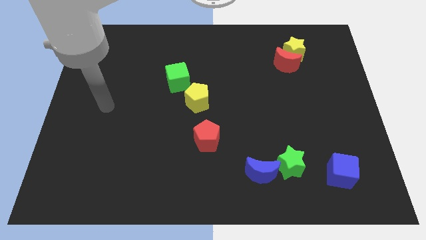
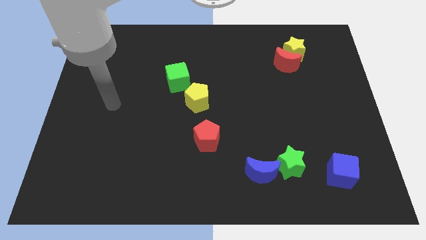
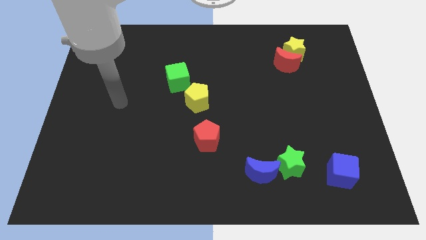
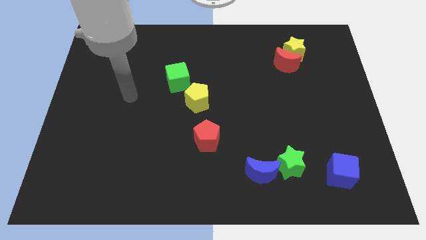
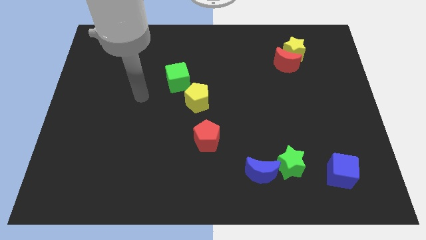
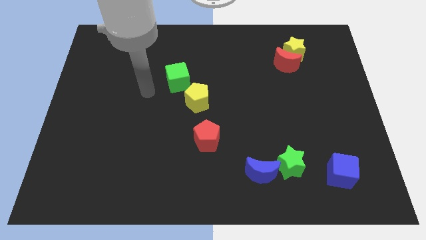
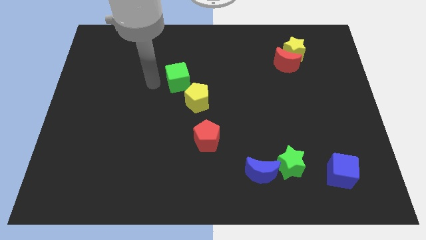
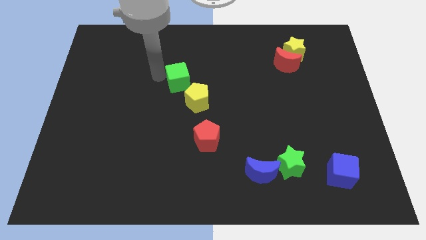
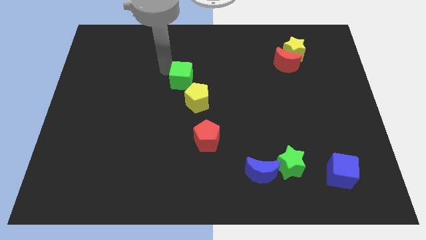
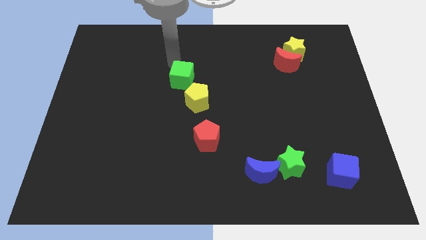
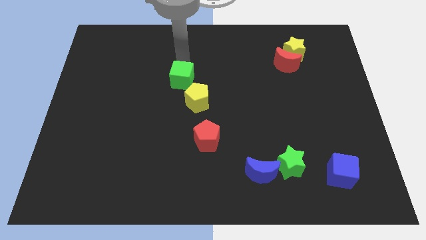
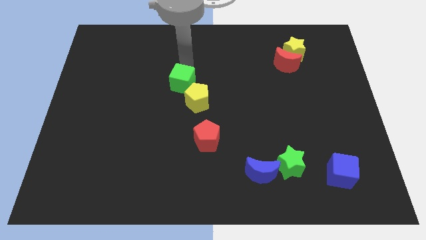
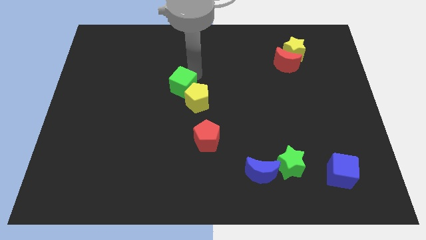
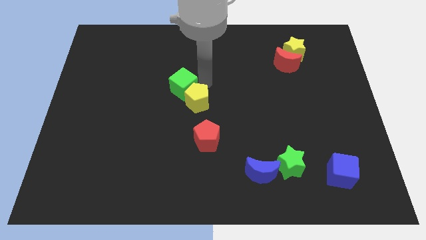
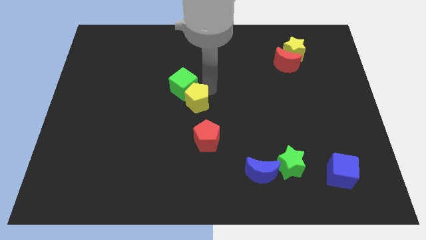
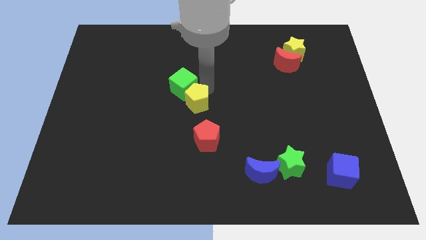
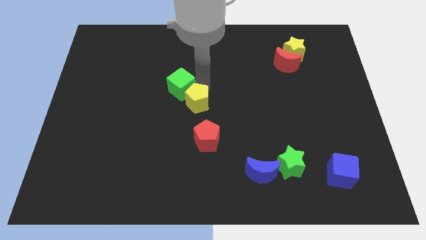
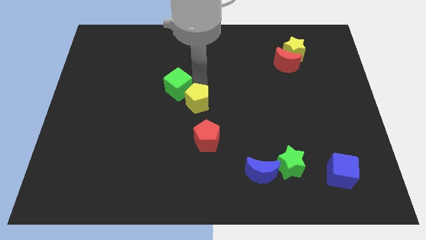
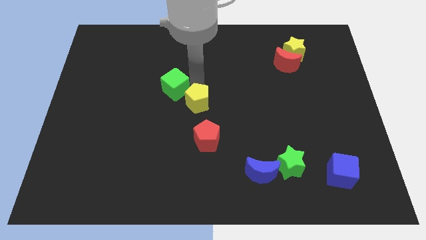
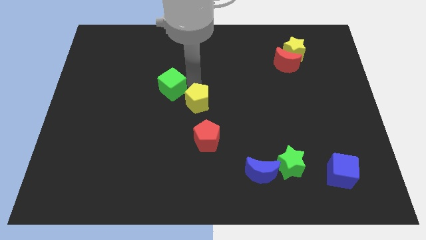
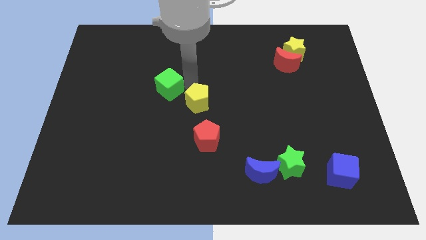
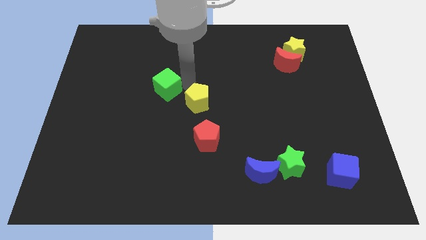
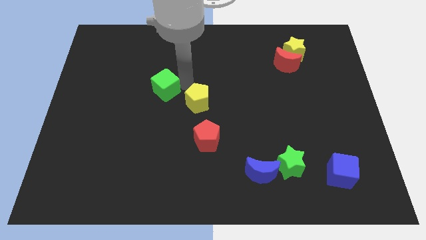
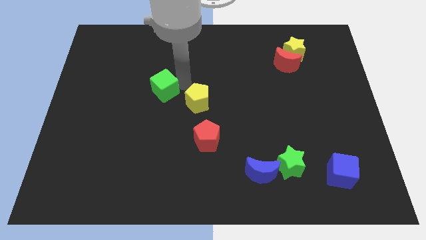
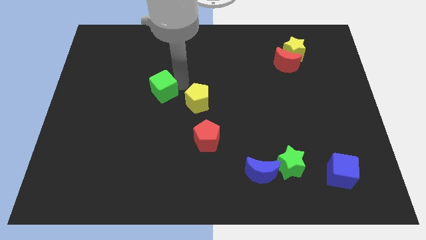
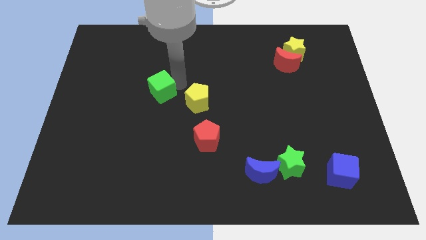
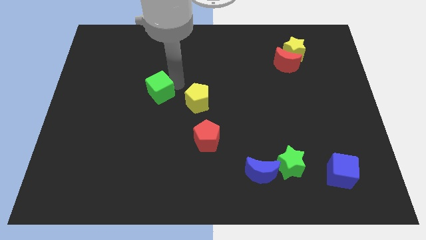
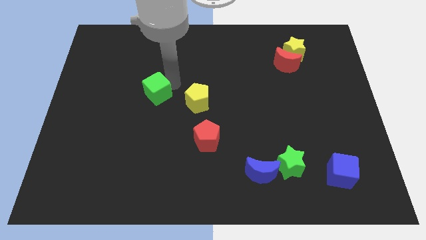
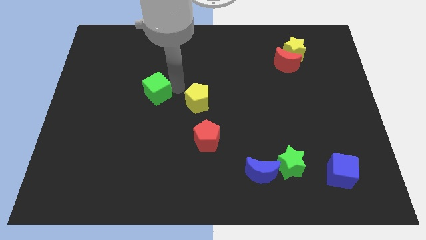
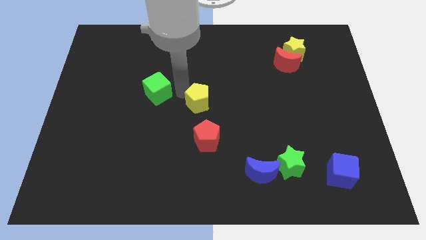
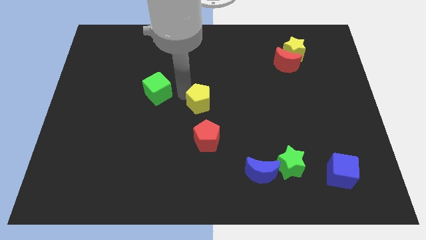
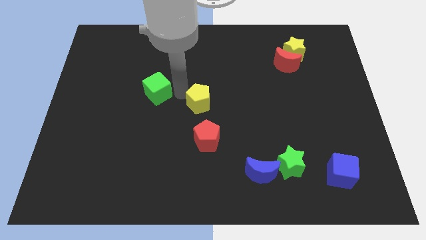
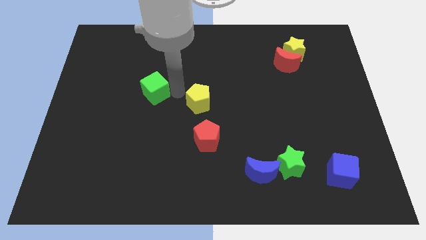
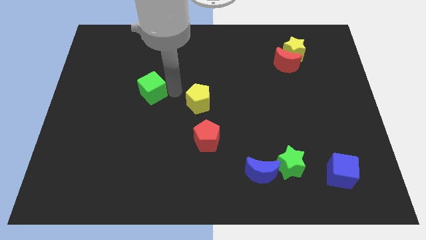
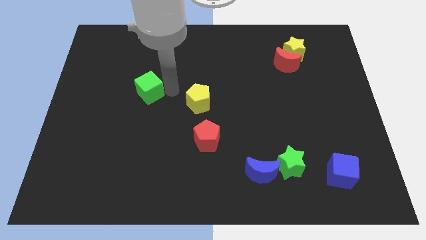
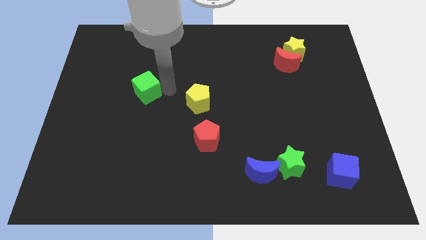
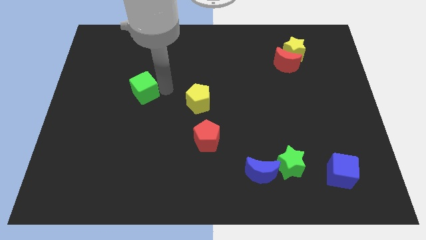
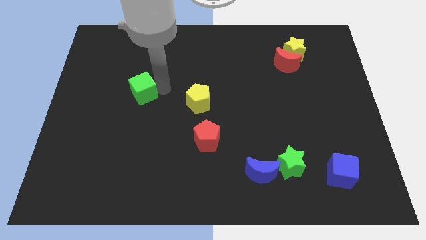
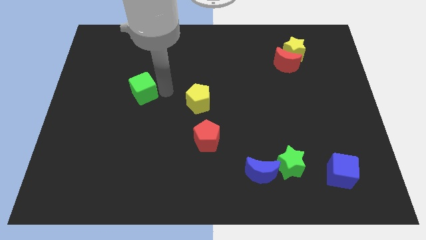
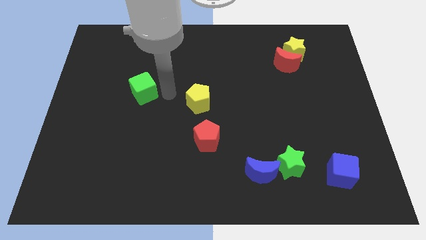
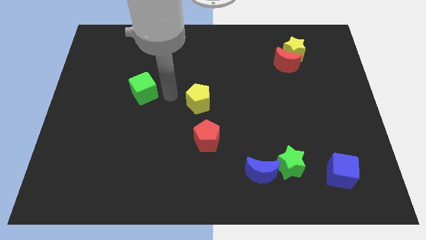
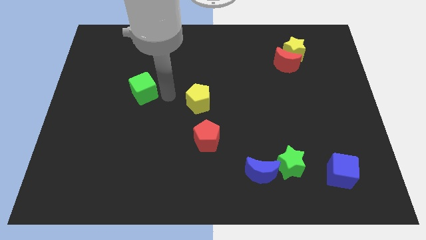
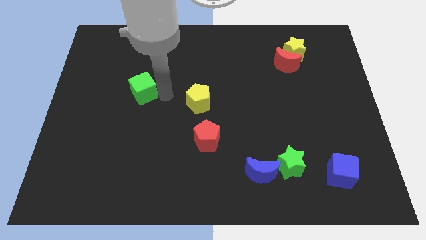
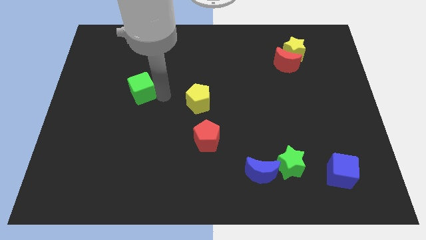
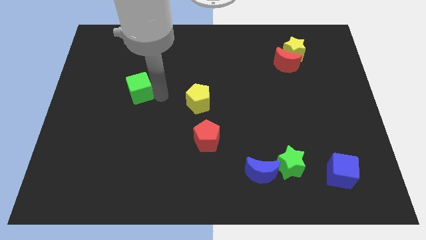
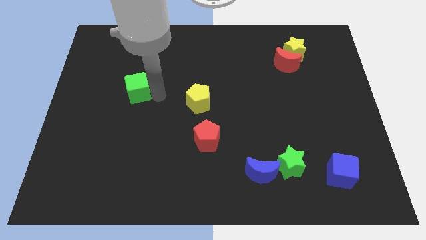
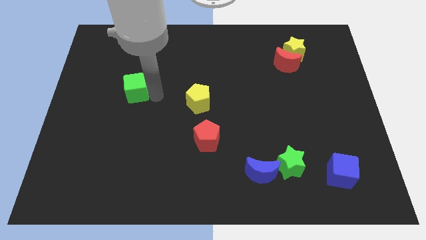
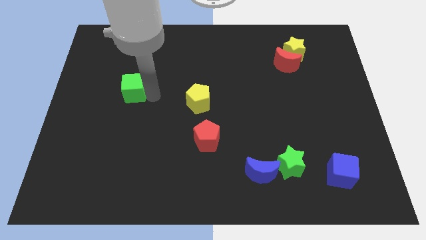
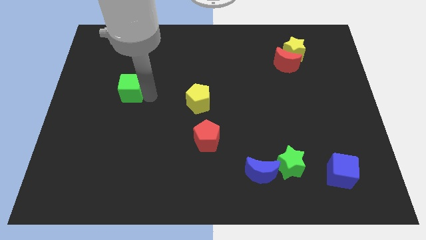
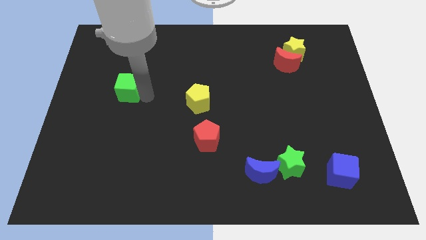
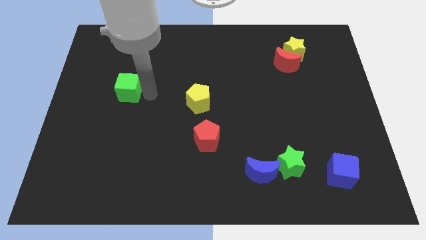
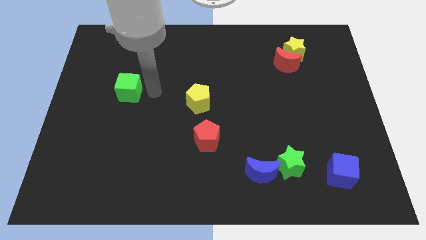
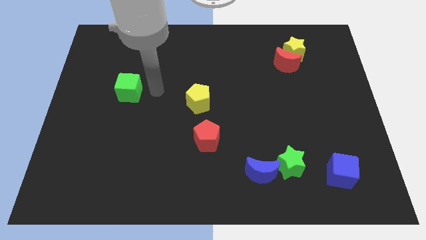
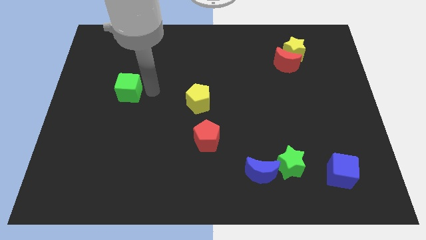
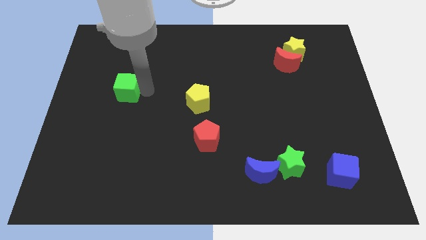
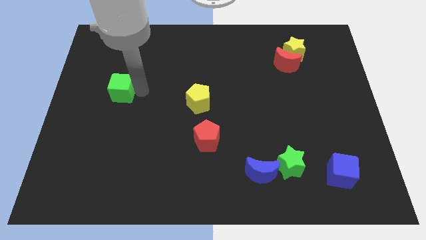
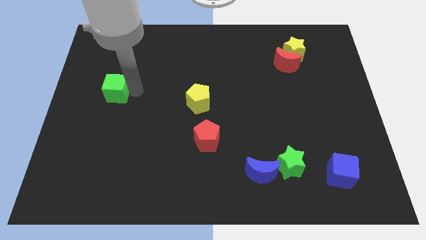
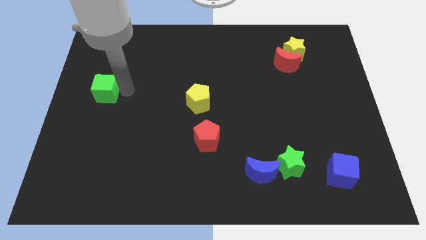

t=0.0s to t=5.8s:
move the green cube to the left side of the board

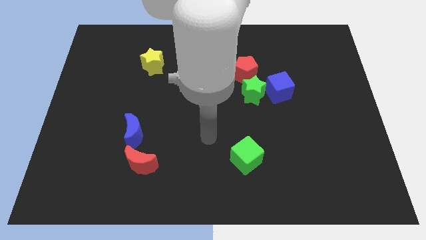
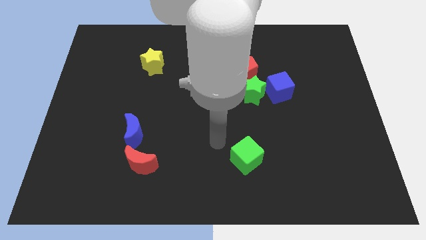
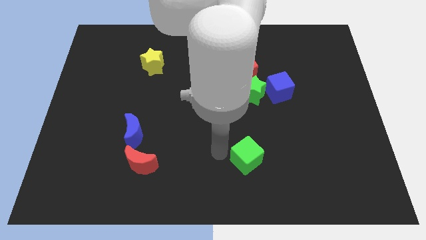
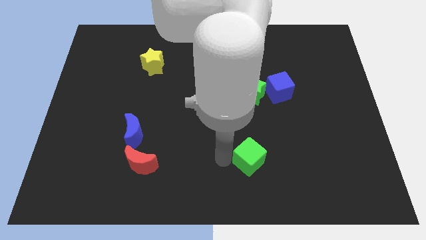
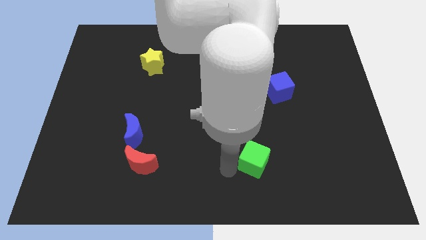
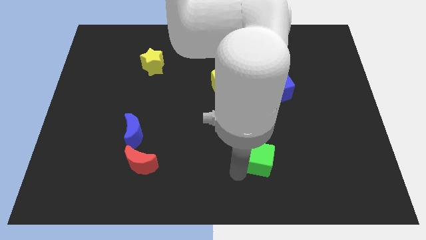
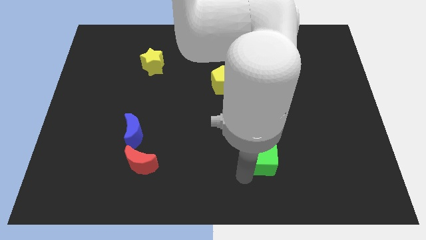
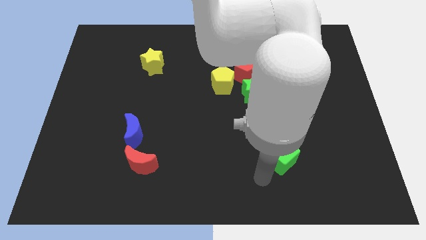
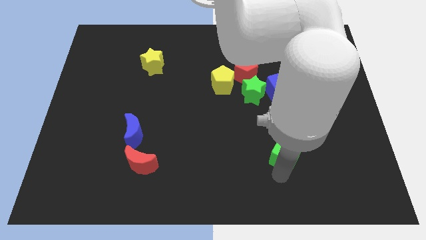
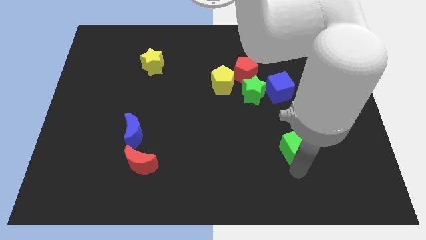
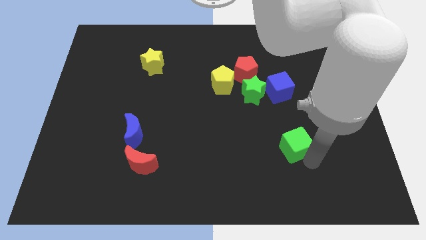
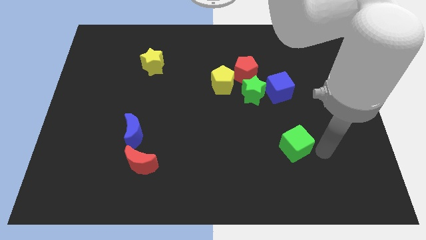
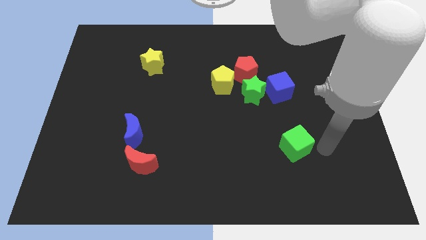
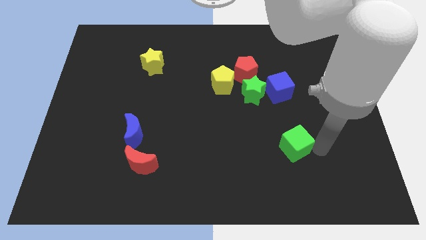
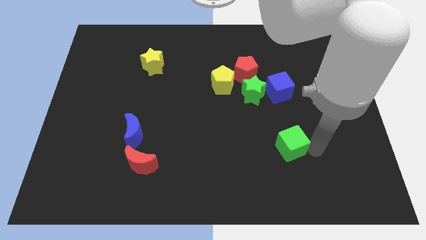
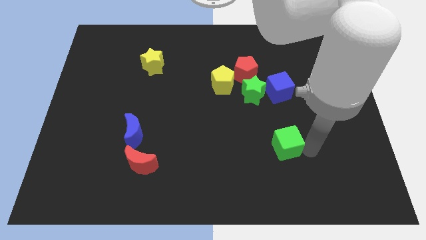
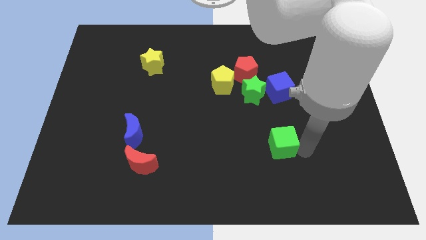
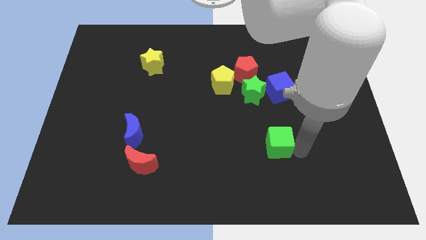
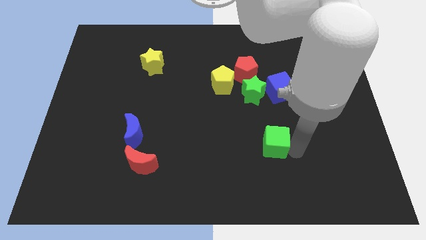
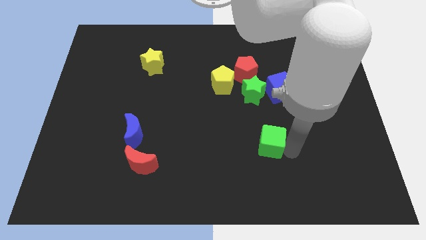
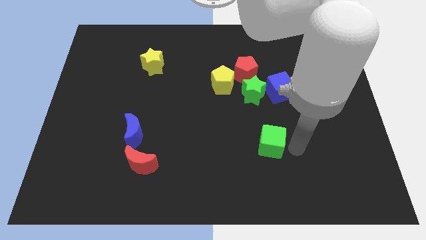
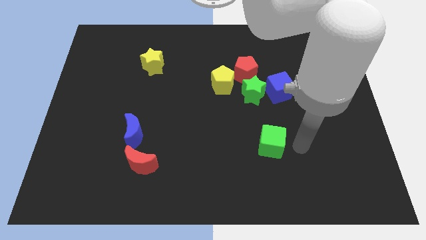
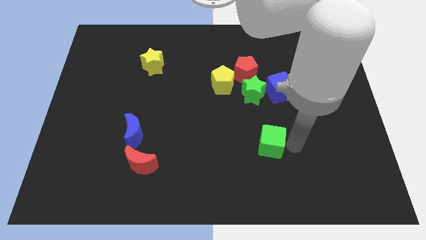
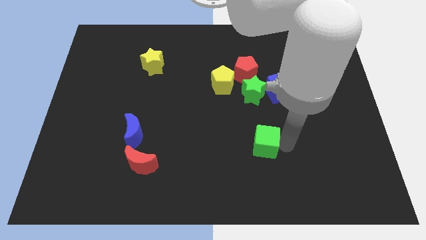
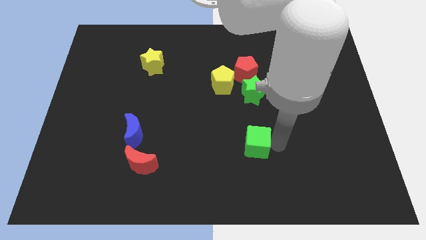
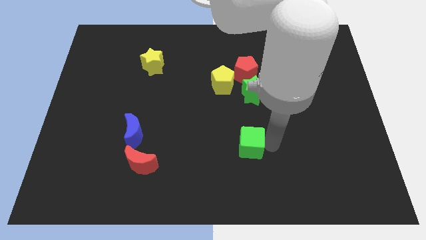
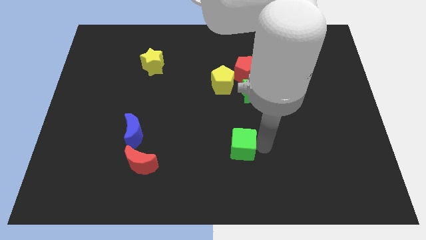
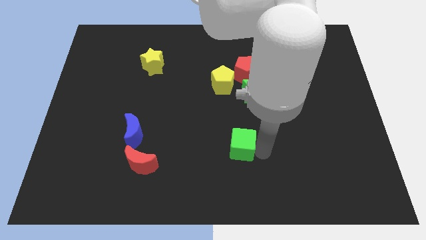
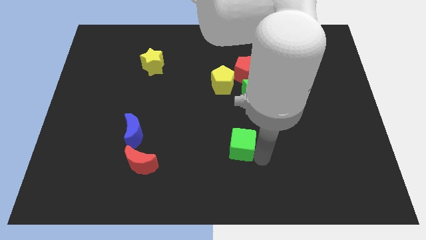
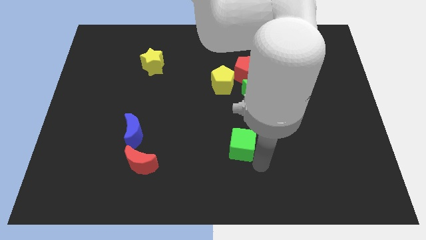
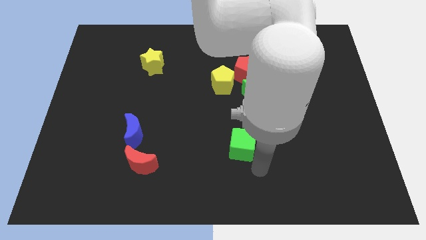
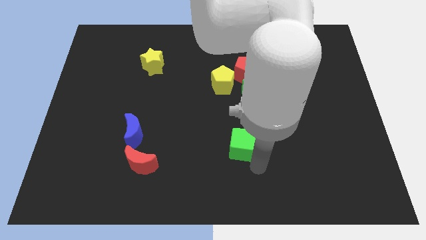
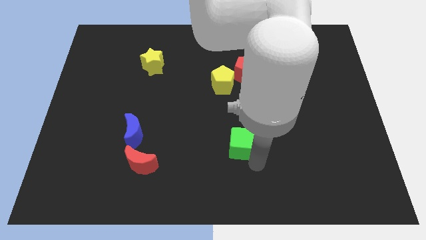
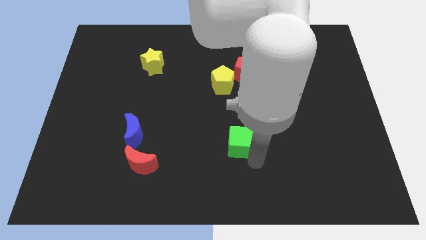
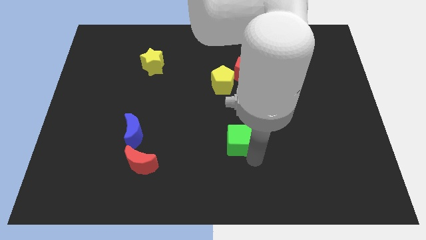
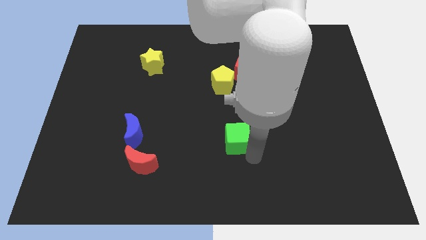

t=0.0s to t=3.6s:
move the green cube to the middle
